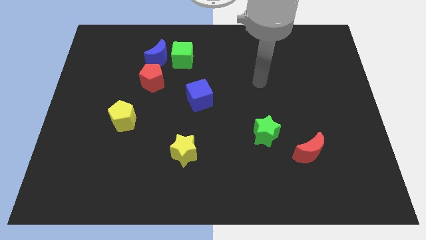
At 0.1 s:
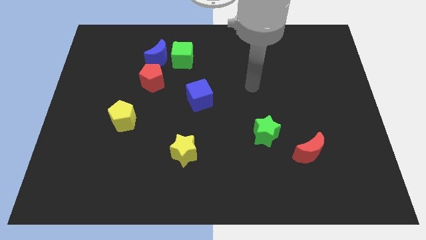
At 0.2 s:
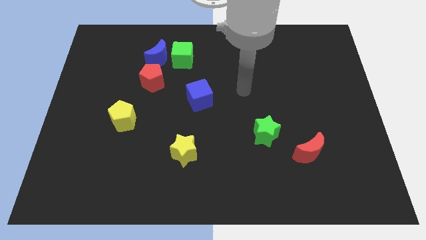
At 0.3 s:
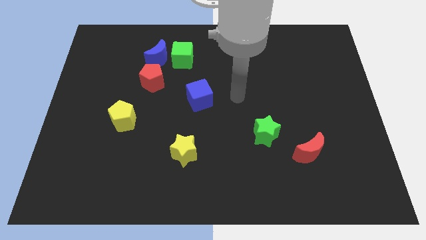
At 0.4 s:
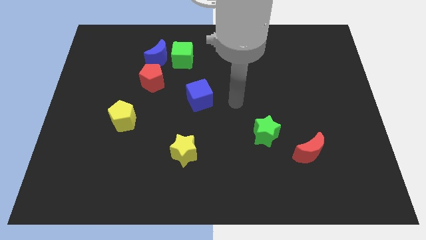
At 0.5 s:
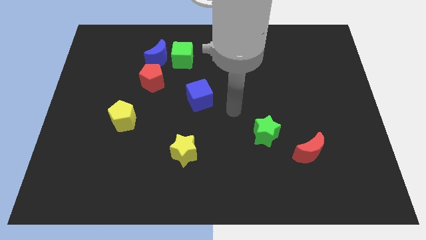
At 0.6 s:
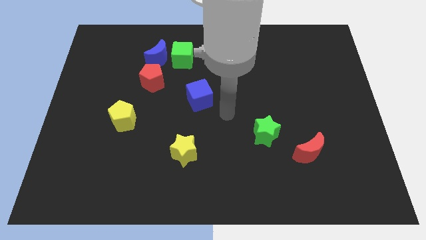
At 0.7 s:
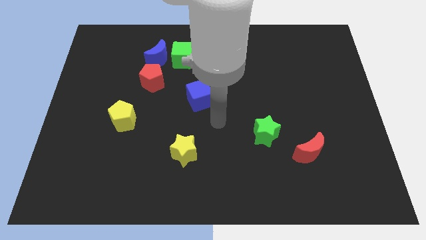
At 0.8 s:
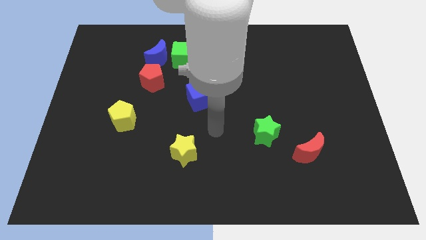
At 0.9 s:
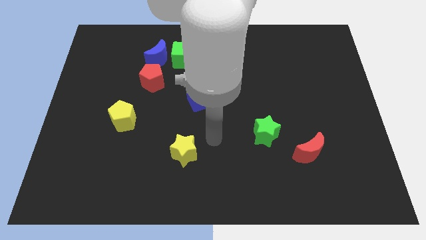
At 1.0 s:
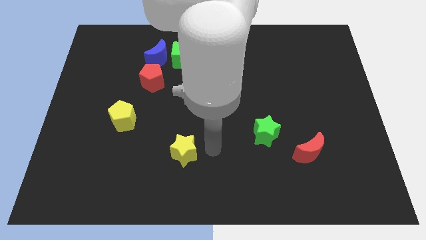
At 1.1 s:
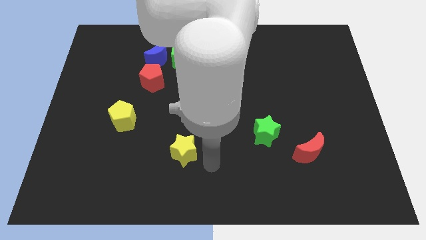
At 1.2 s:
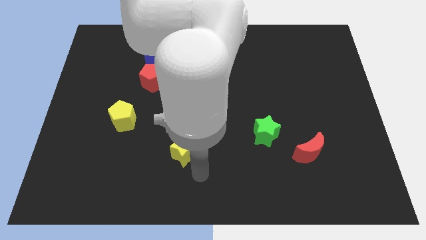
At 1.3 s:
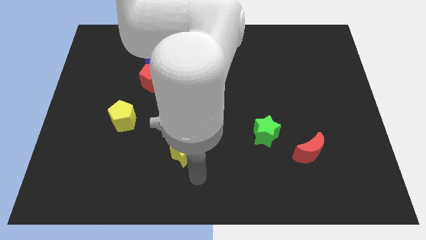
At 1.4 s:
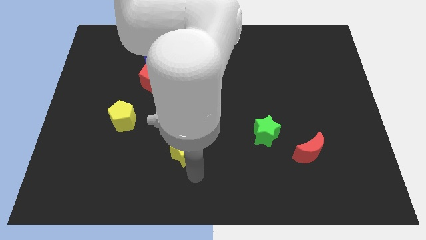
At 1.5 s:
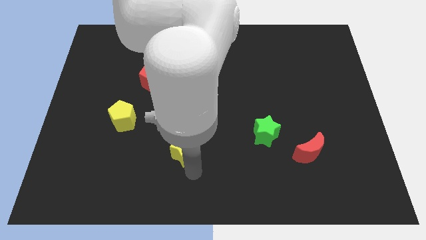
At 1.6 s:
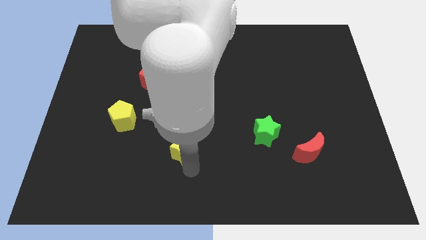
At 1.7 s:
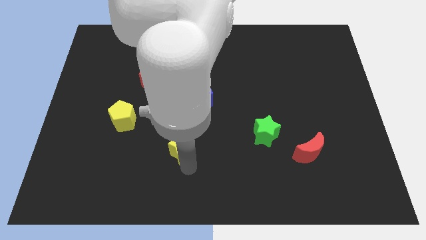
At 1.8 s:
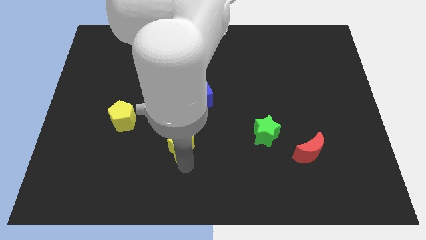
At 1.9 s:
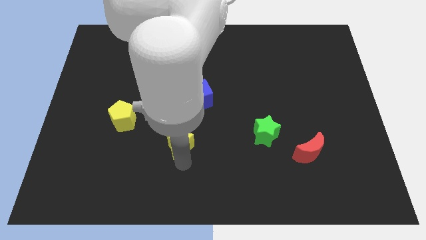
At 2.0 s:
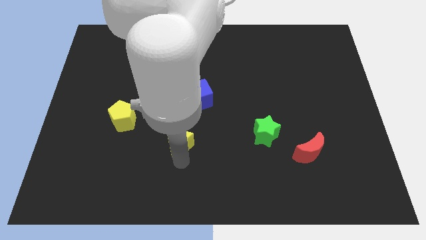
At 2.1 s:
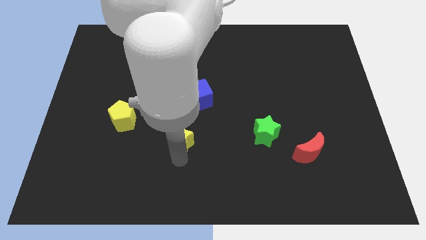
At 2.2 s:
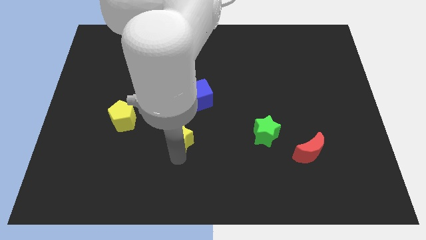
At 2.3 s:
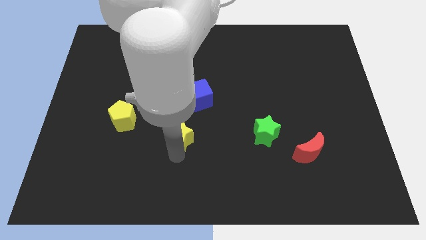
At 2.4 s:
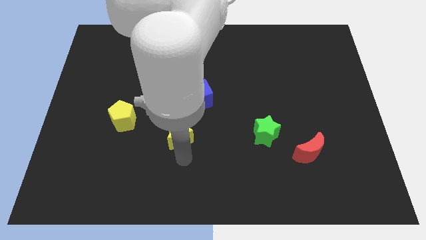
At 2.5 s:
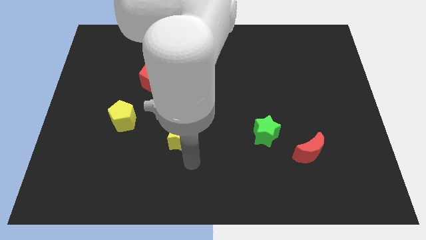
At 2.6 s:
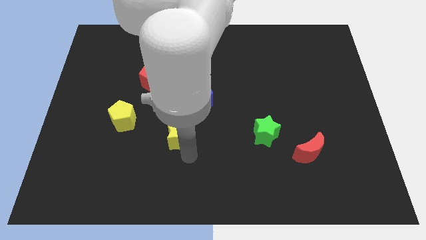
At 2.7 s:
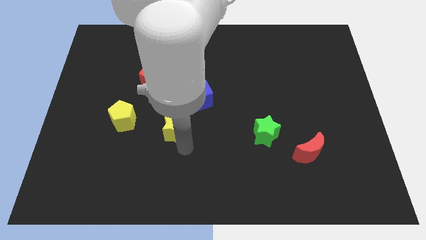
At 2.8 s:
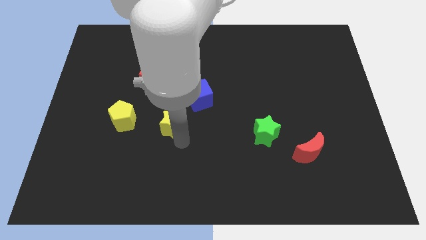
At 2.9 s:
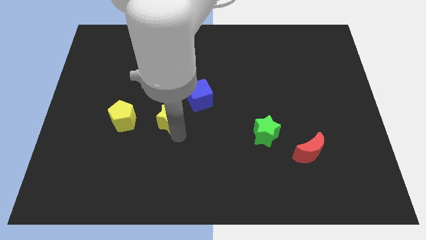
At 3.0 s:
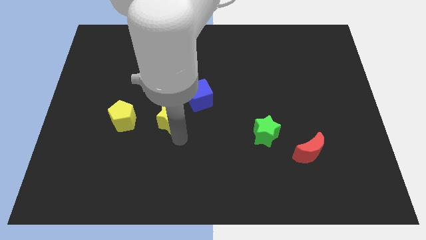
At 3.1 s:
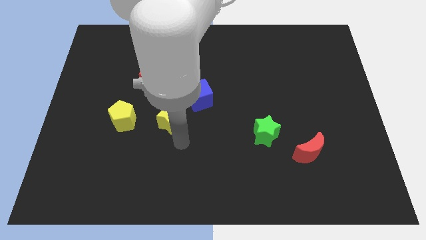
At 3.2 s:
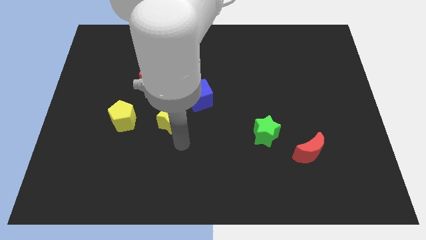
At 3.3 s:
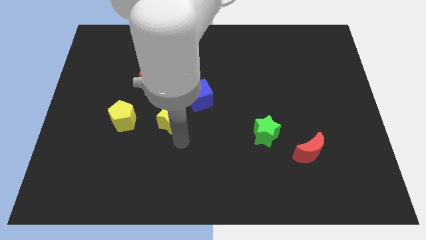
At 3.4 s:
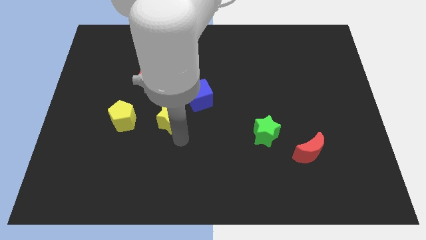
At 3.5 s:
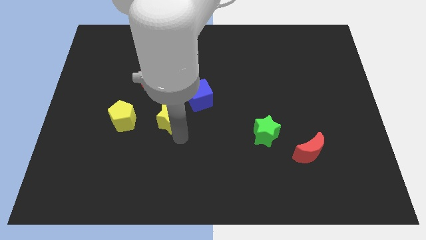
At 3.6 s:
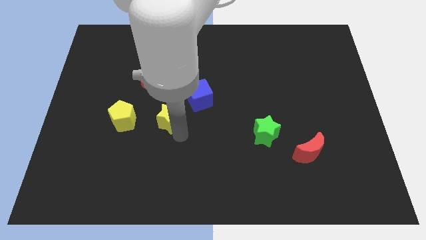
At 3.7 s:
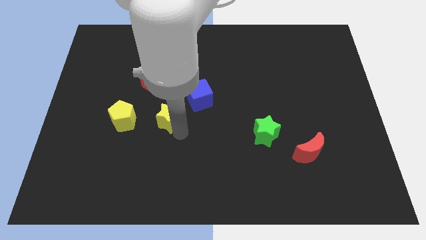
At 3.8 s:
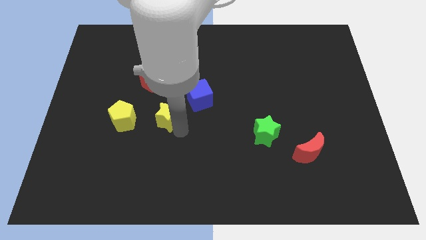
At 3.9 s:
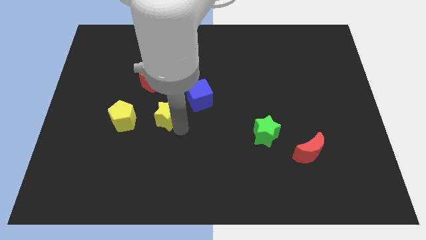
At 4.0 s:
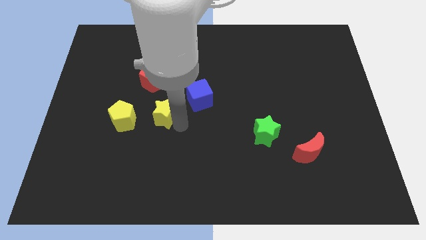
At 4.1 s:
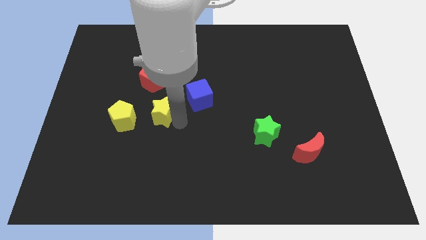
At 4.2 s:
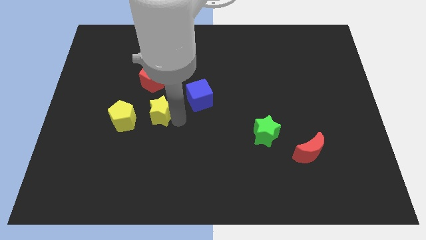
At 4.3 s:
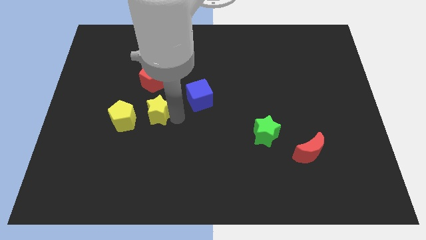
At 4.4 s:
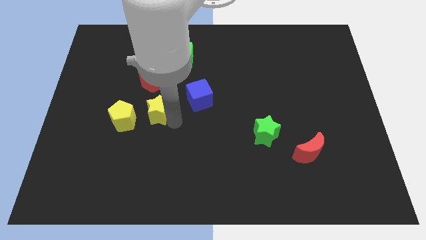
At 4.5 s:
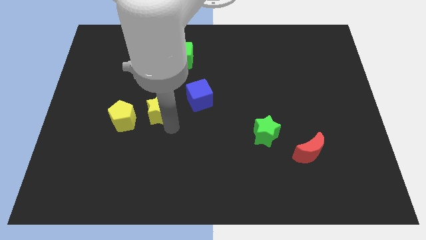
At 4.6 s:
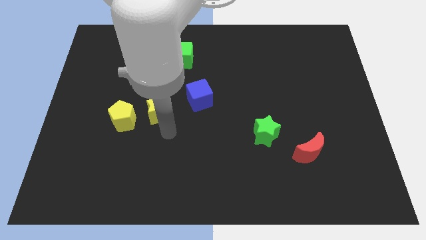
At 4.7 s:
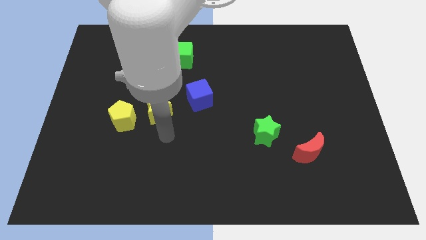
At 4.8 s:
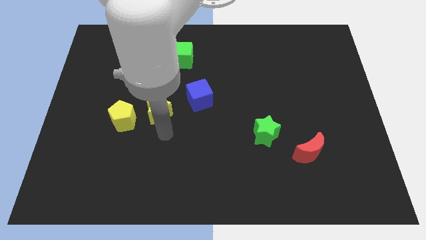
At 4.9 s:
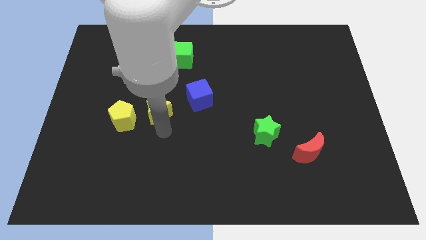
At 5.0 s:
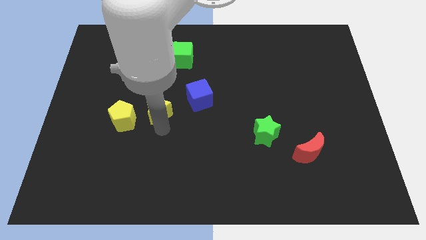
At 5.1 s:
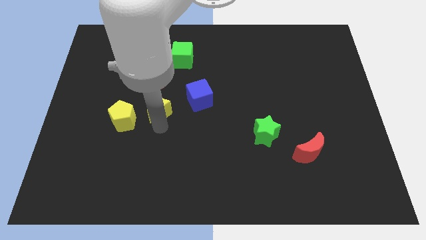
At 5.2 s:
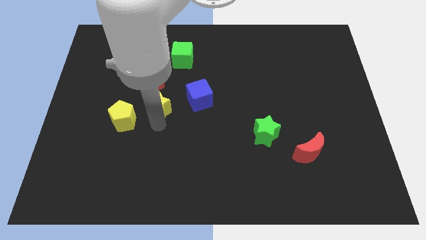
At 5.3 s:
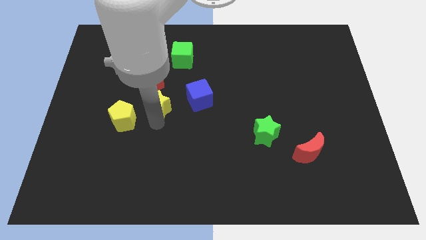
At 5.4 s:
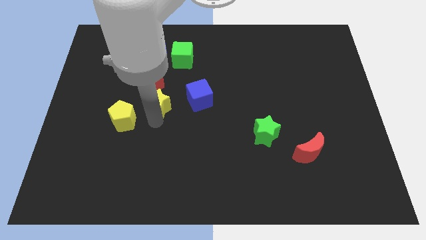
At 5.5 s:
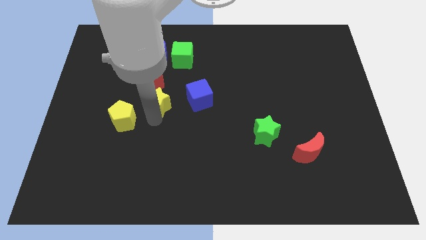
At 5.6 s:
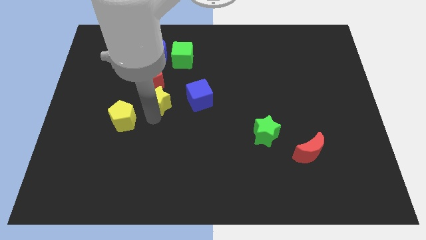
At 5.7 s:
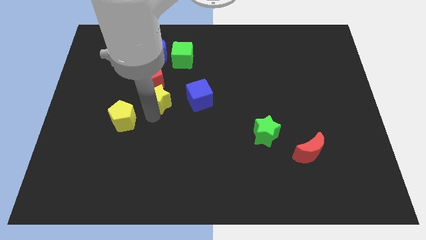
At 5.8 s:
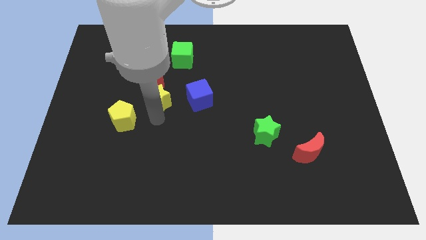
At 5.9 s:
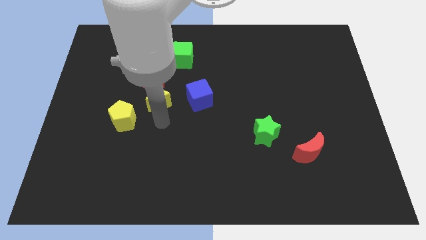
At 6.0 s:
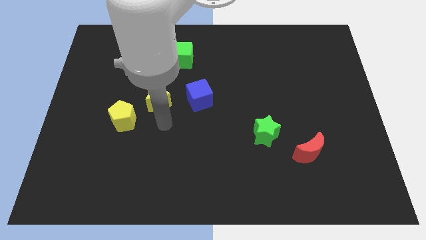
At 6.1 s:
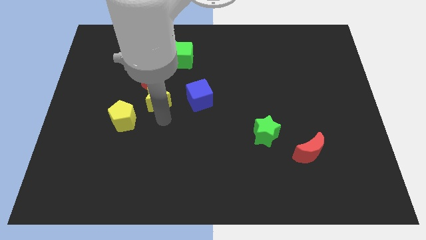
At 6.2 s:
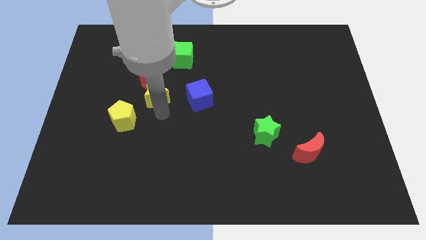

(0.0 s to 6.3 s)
push the yellow star to the red pentagon
